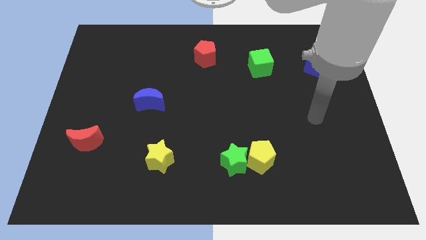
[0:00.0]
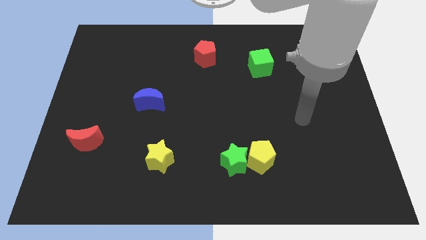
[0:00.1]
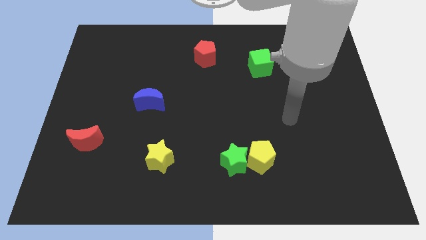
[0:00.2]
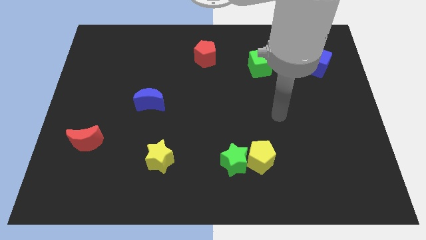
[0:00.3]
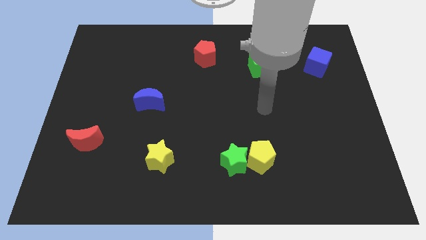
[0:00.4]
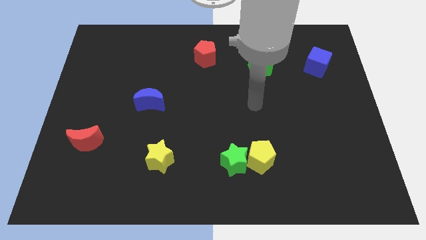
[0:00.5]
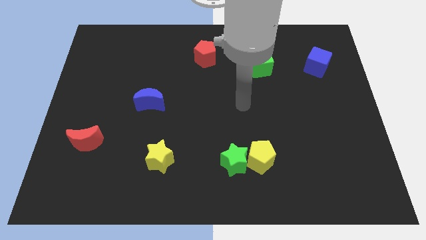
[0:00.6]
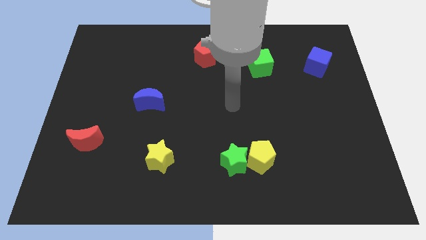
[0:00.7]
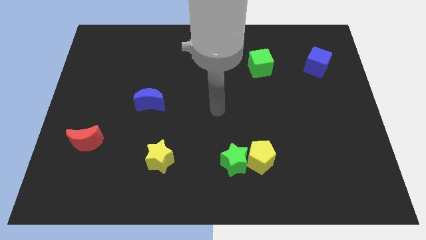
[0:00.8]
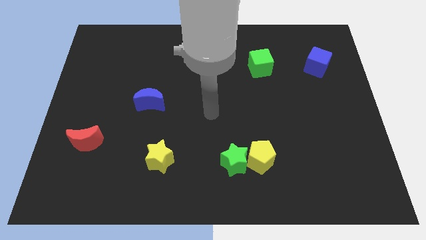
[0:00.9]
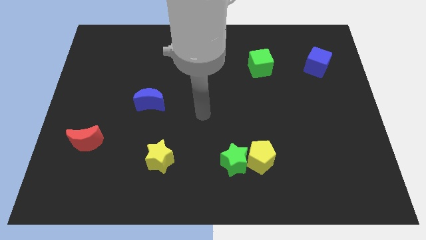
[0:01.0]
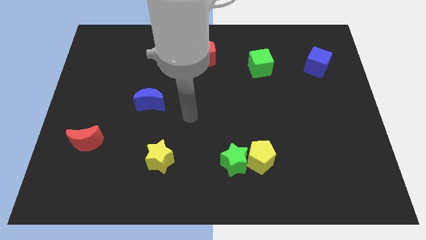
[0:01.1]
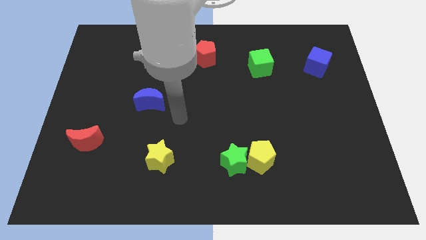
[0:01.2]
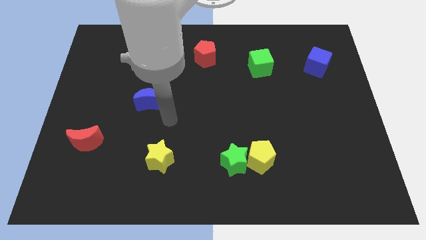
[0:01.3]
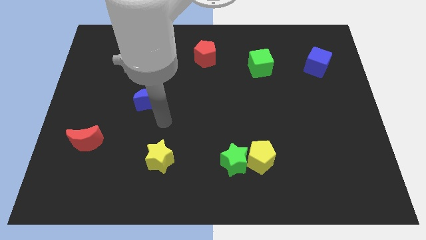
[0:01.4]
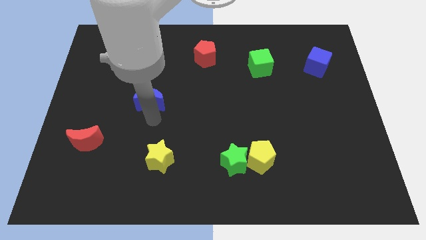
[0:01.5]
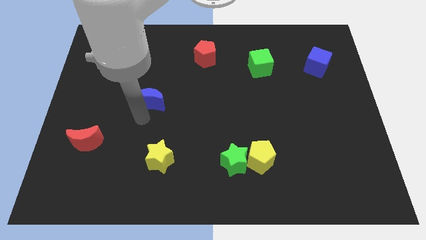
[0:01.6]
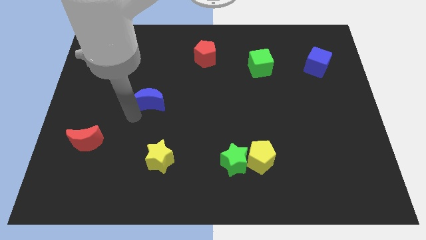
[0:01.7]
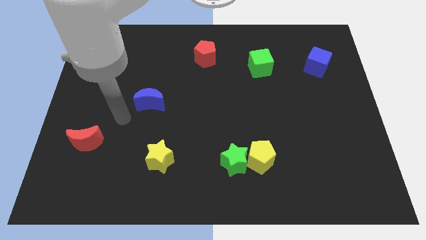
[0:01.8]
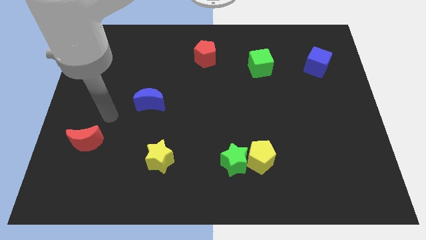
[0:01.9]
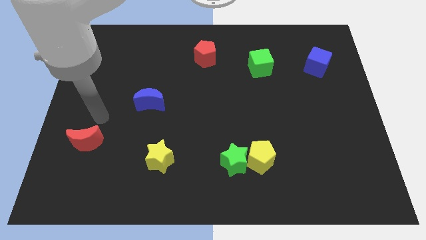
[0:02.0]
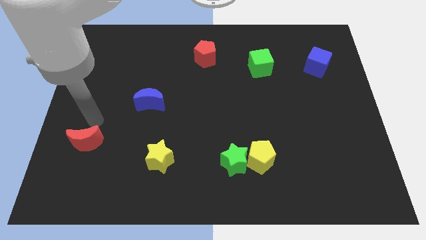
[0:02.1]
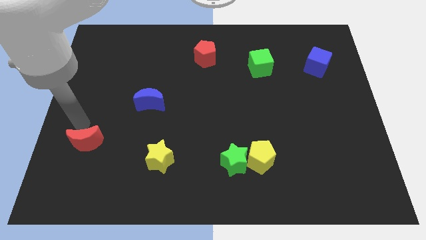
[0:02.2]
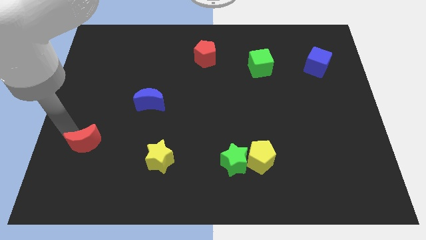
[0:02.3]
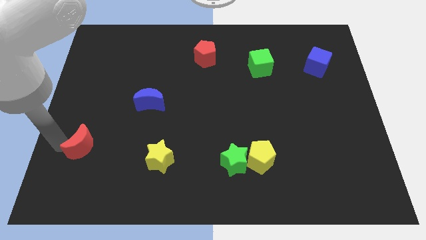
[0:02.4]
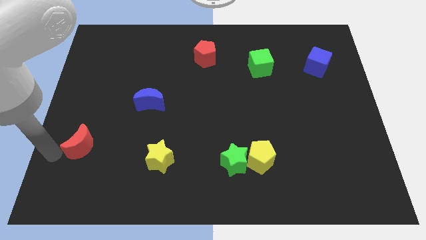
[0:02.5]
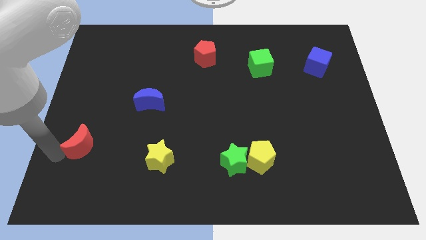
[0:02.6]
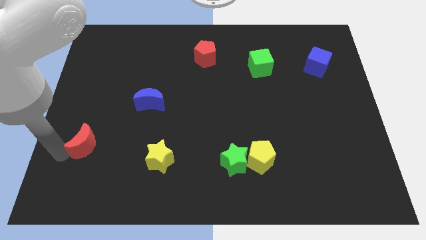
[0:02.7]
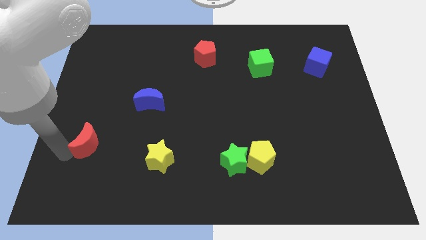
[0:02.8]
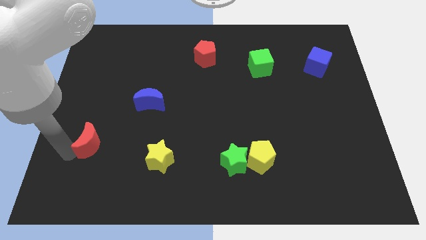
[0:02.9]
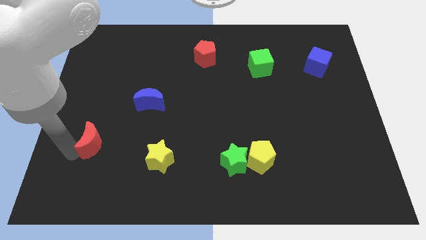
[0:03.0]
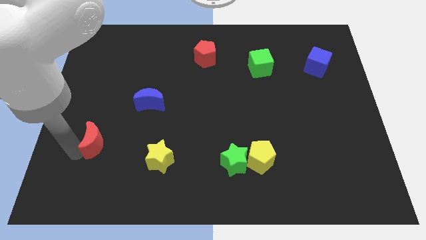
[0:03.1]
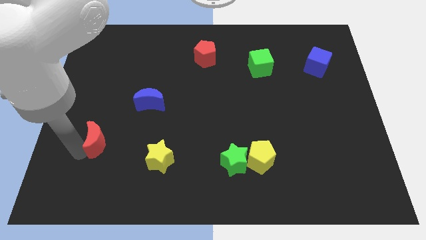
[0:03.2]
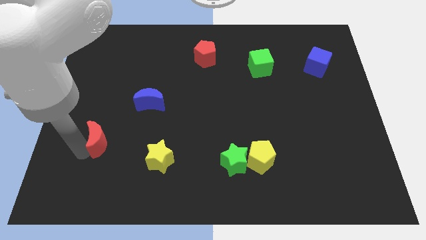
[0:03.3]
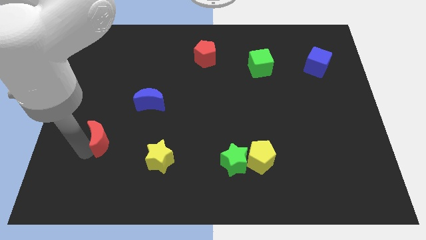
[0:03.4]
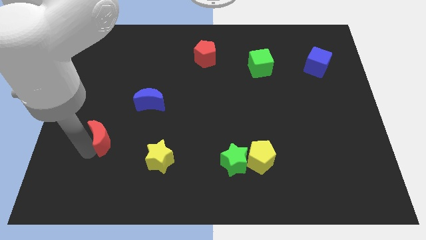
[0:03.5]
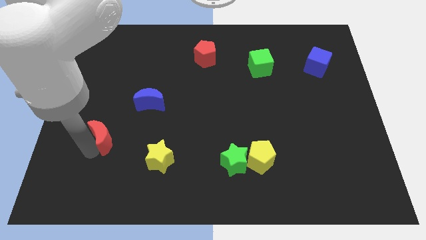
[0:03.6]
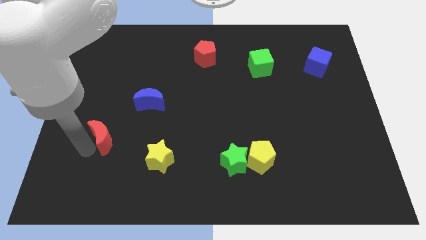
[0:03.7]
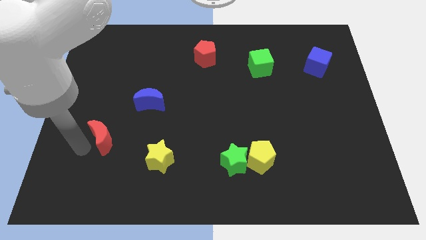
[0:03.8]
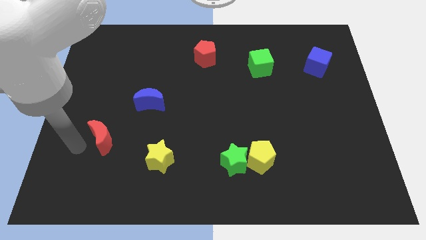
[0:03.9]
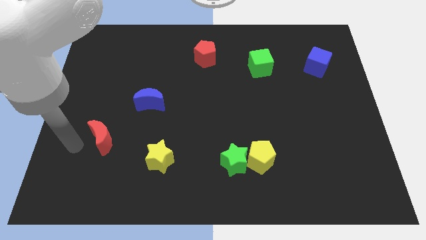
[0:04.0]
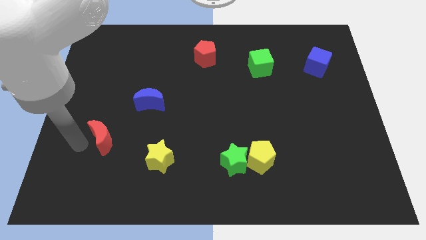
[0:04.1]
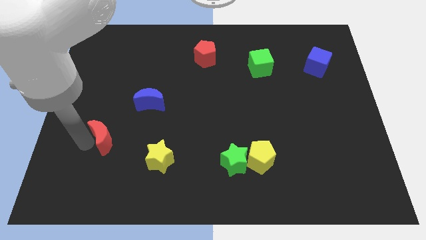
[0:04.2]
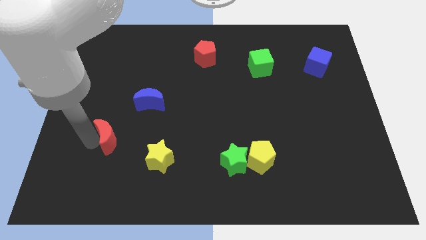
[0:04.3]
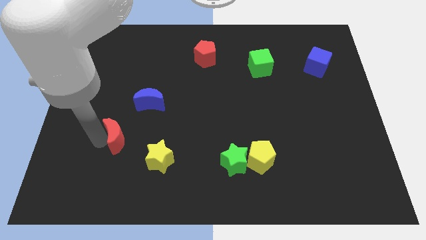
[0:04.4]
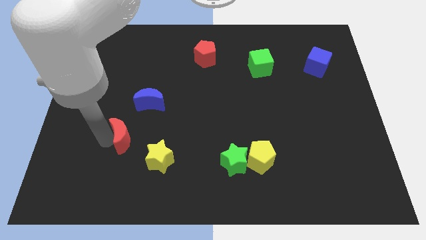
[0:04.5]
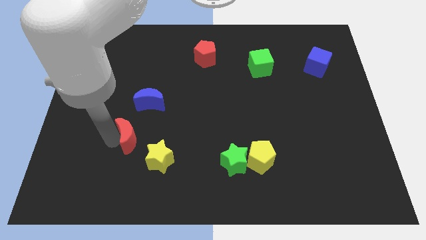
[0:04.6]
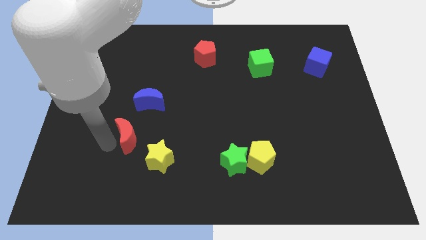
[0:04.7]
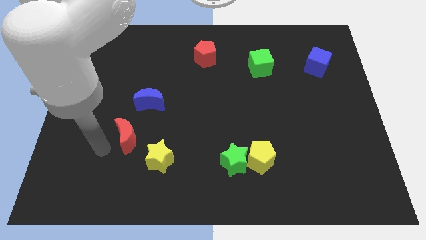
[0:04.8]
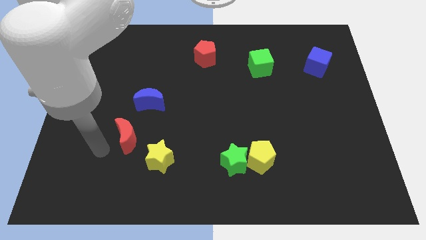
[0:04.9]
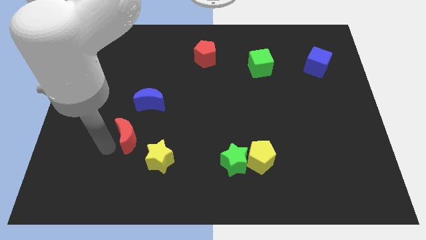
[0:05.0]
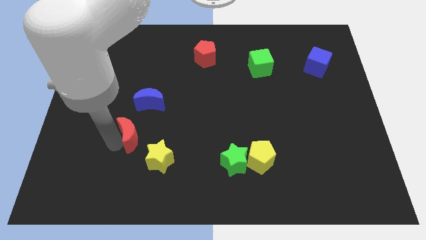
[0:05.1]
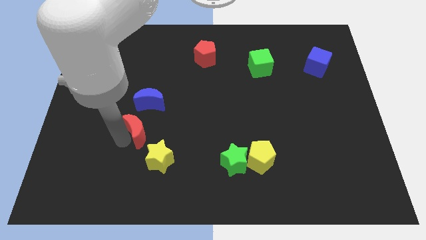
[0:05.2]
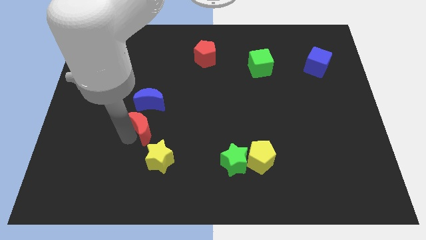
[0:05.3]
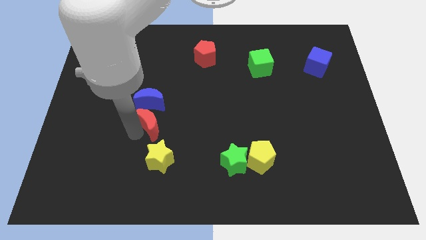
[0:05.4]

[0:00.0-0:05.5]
push the red moon diagonally down and to the right of the blue moon

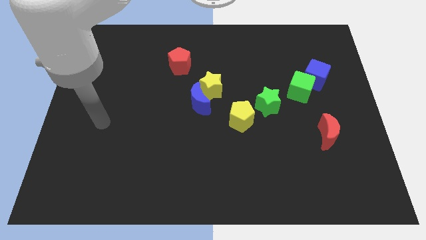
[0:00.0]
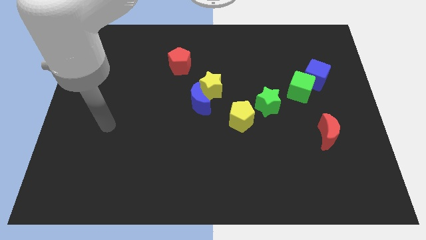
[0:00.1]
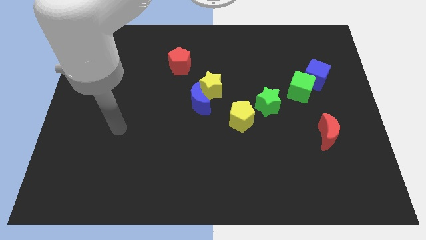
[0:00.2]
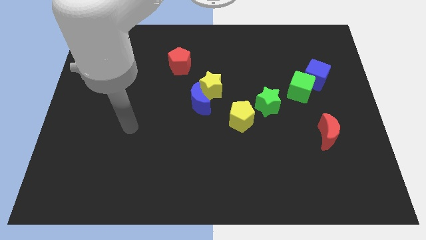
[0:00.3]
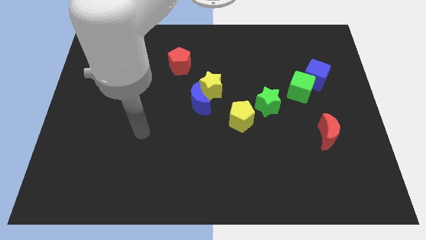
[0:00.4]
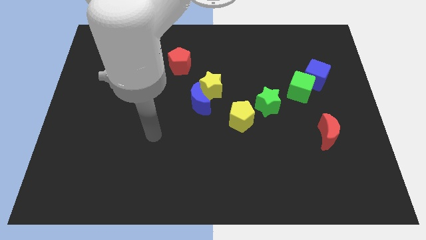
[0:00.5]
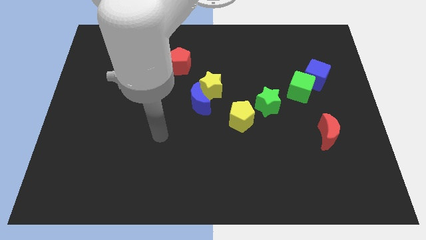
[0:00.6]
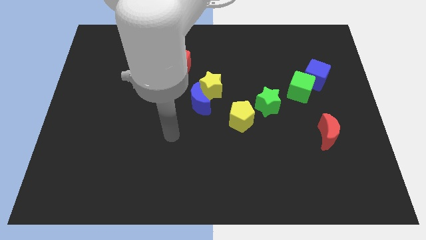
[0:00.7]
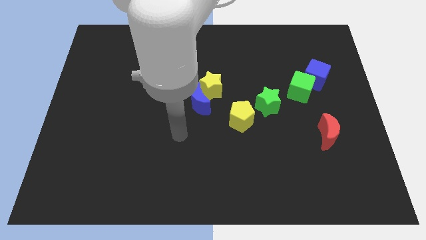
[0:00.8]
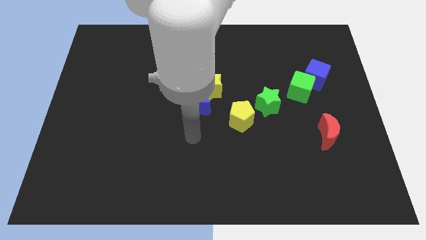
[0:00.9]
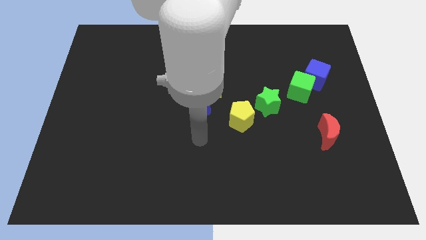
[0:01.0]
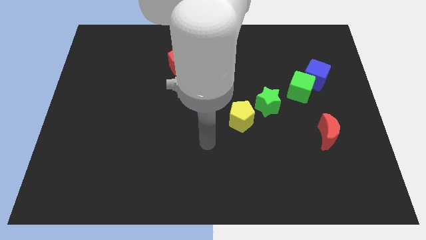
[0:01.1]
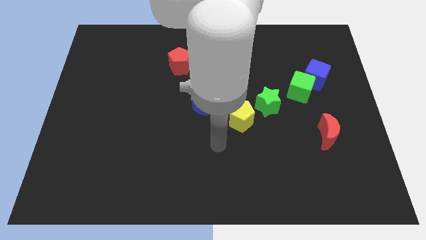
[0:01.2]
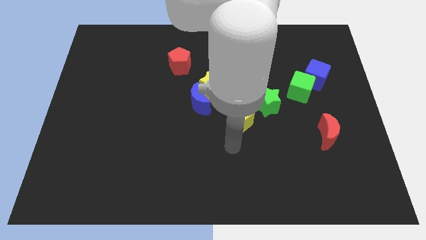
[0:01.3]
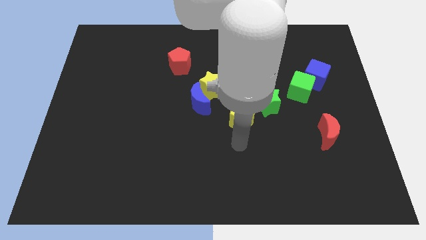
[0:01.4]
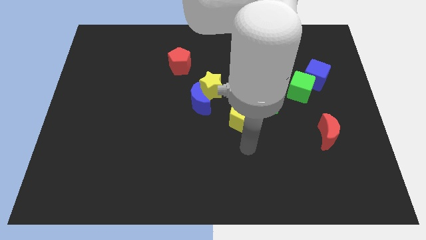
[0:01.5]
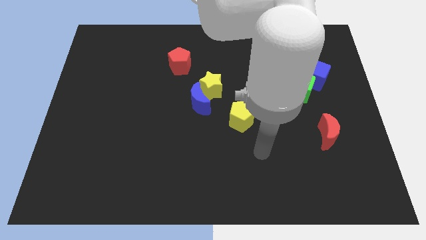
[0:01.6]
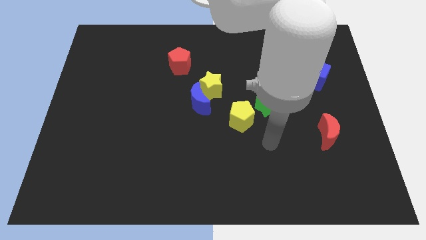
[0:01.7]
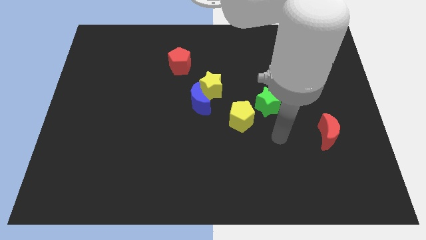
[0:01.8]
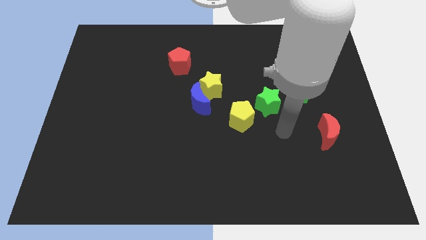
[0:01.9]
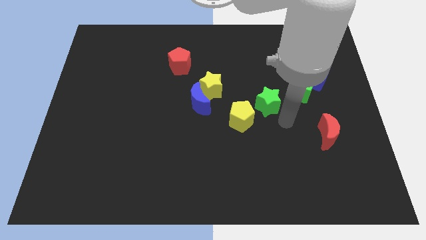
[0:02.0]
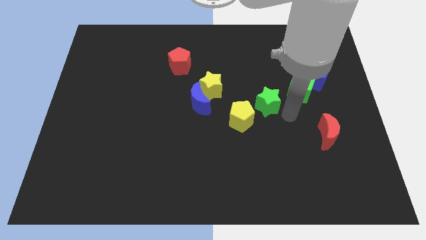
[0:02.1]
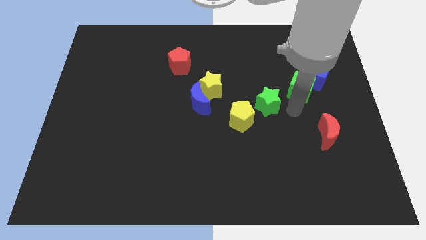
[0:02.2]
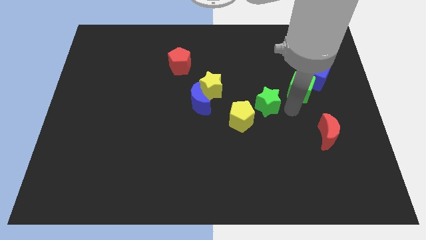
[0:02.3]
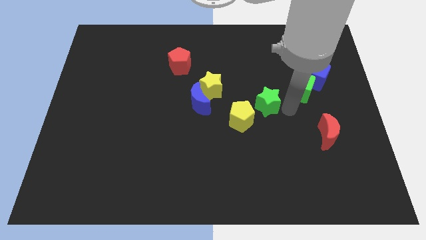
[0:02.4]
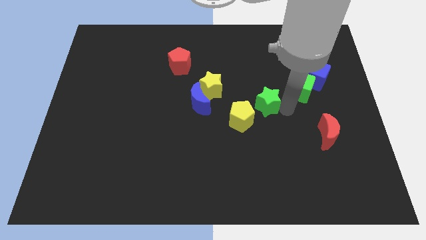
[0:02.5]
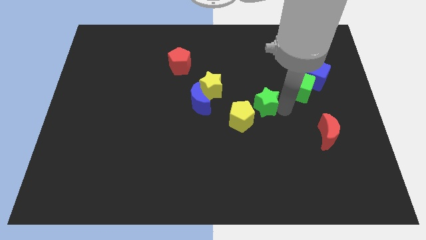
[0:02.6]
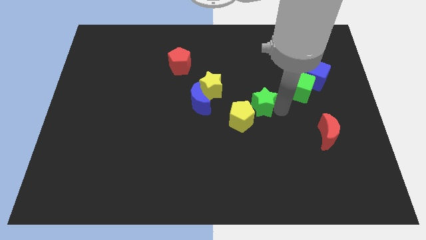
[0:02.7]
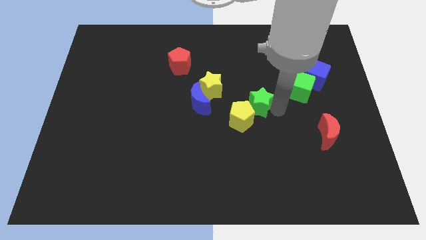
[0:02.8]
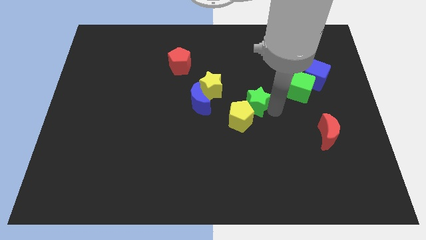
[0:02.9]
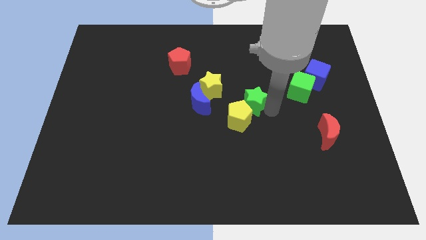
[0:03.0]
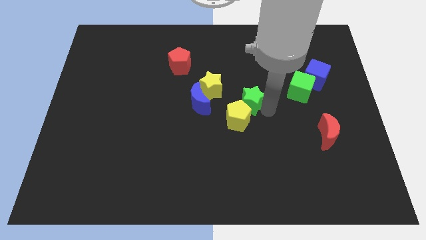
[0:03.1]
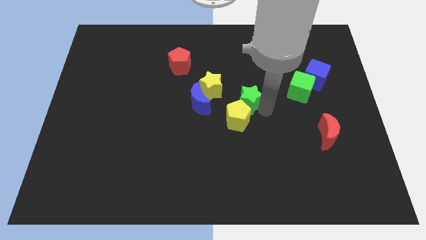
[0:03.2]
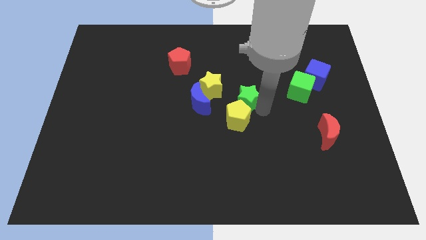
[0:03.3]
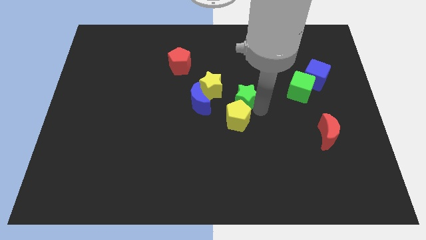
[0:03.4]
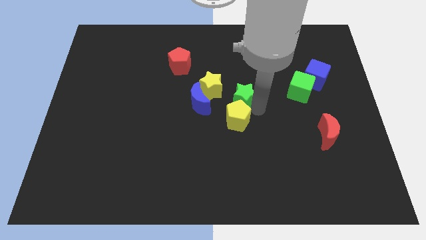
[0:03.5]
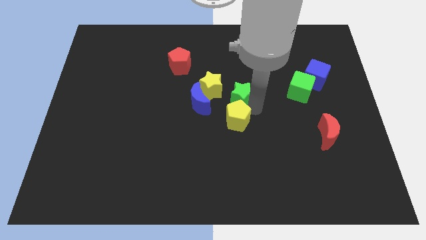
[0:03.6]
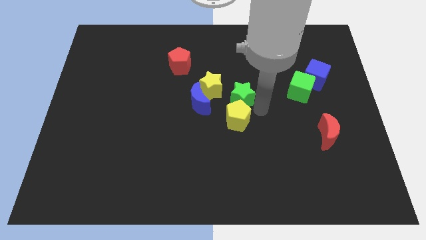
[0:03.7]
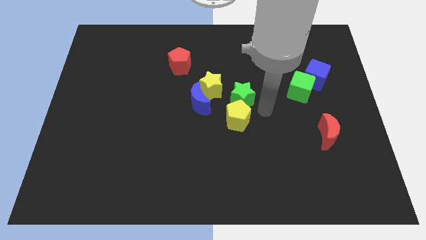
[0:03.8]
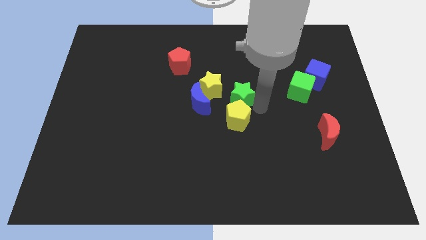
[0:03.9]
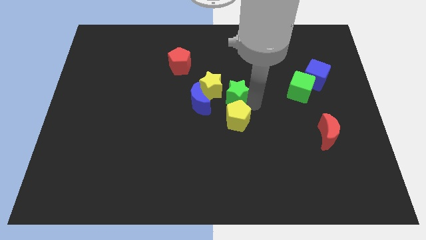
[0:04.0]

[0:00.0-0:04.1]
push the green star to the top right of the blue moon
